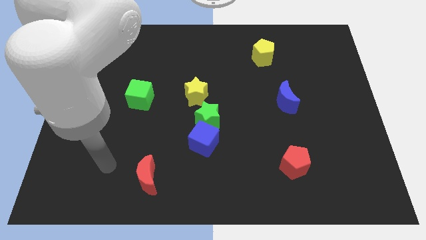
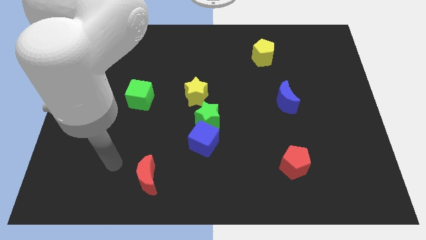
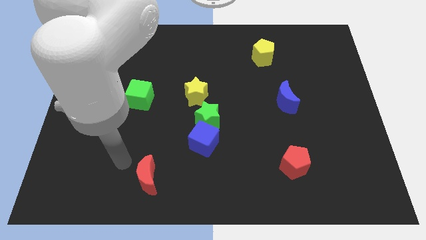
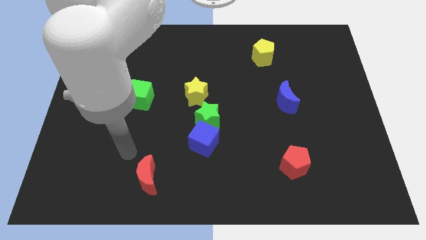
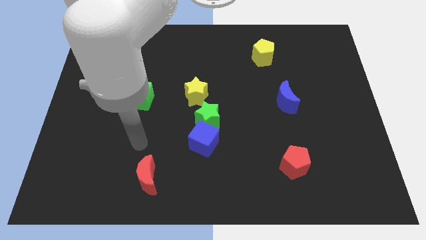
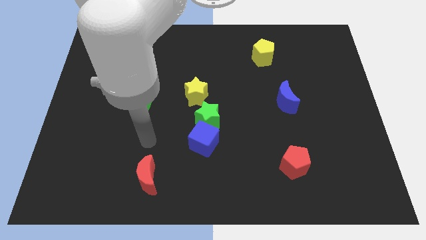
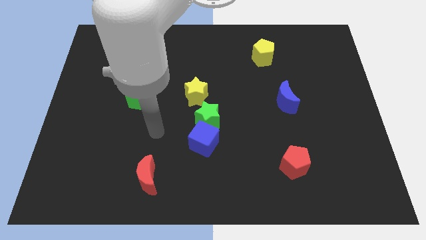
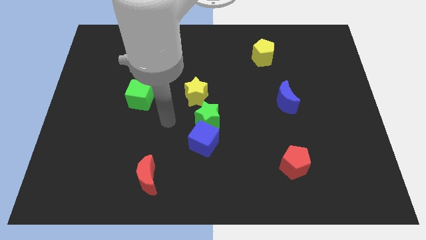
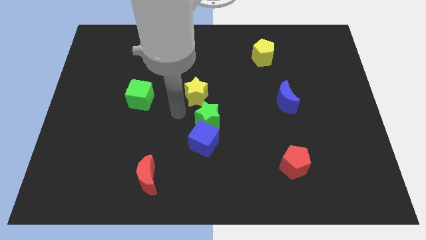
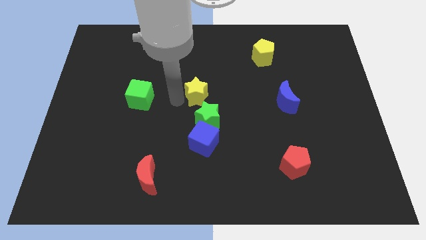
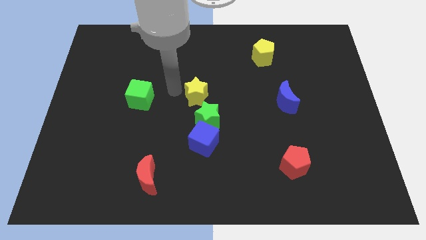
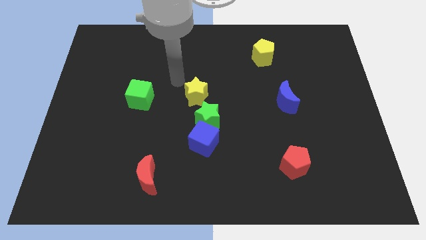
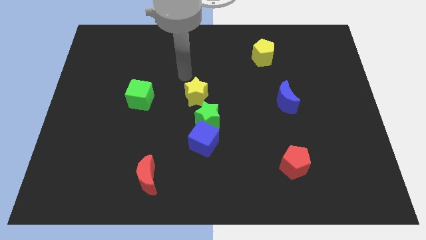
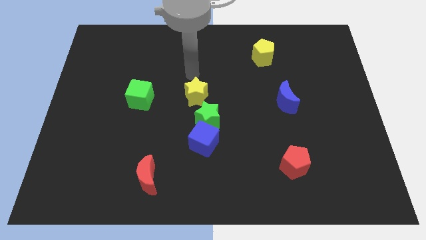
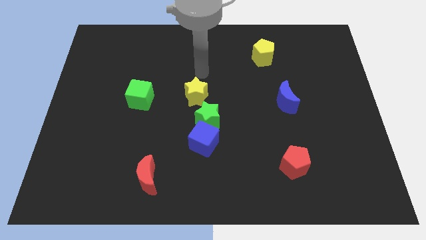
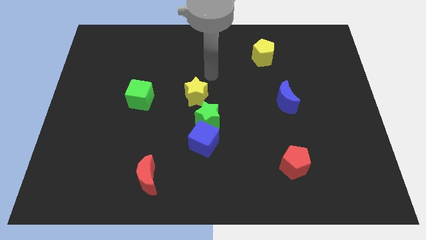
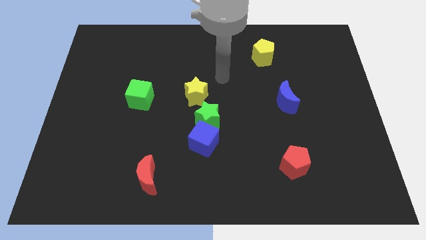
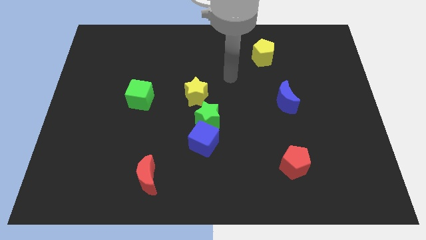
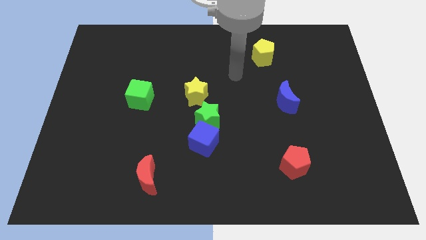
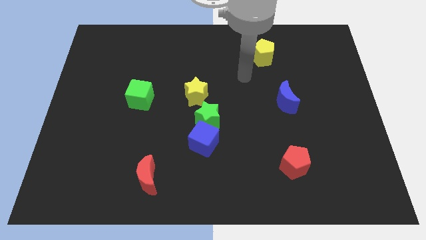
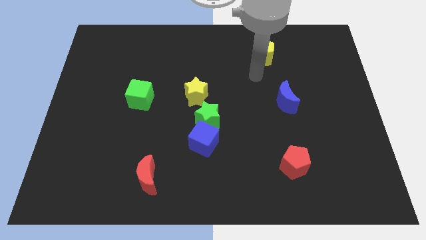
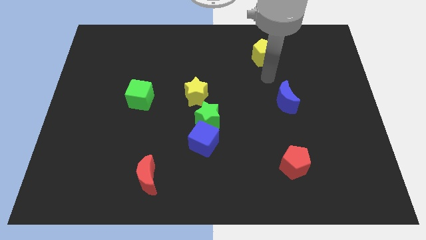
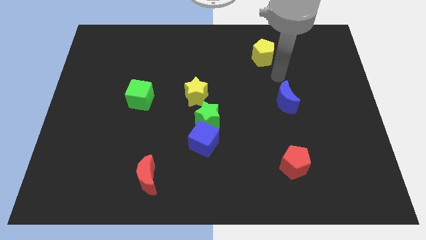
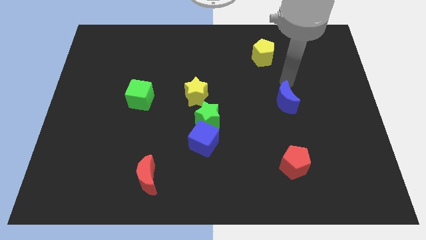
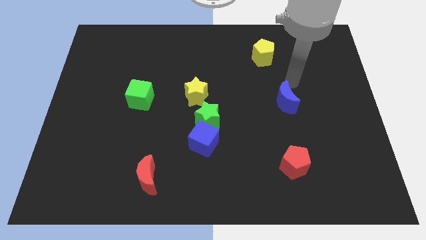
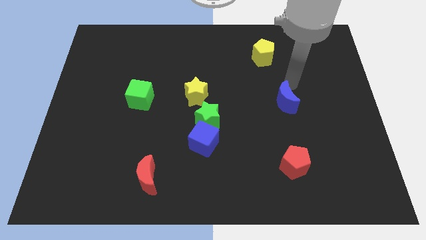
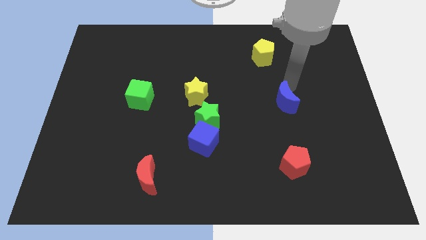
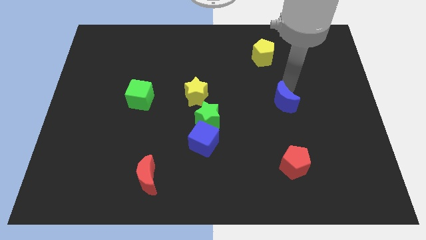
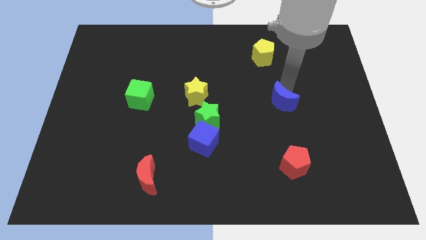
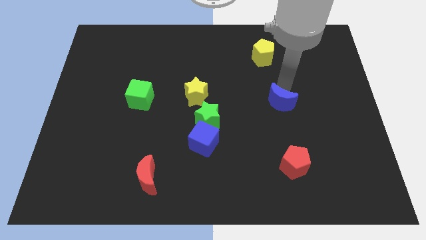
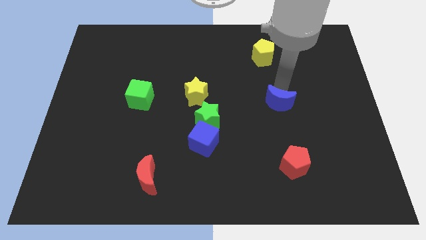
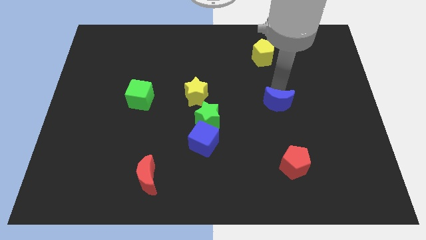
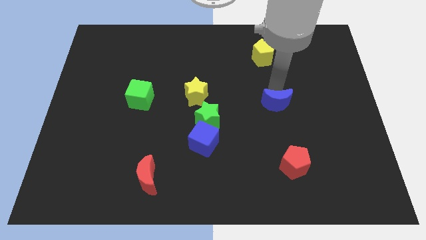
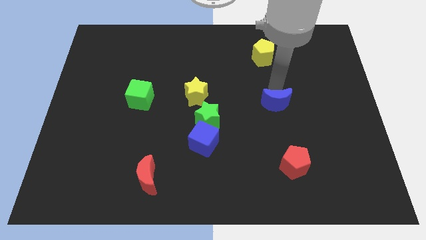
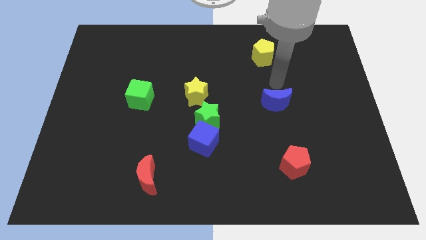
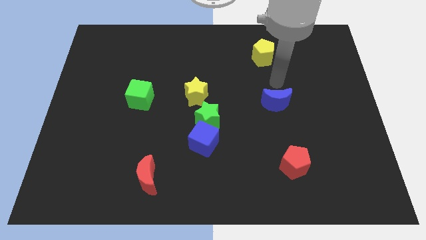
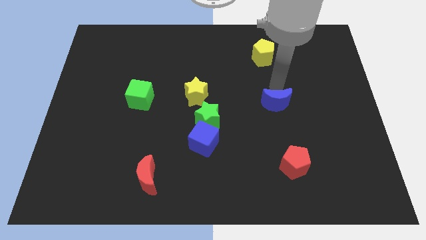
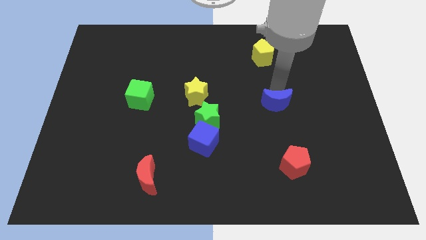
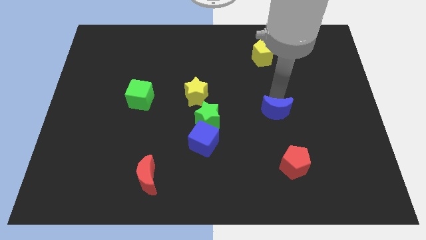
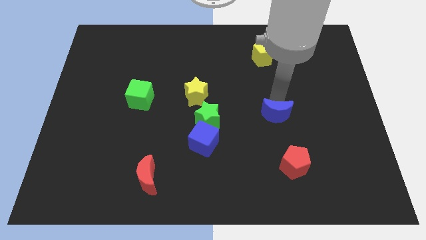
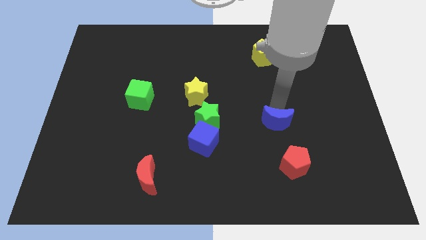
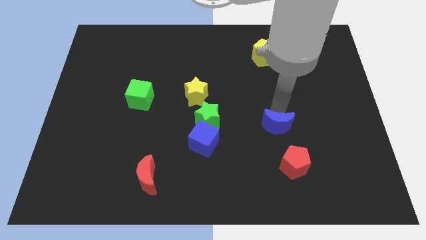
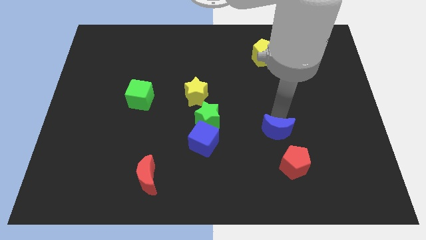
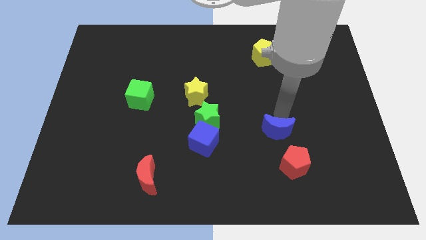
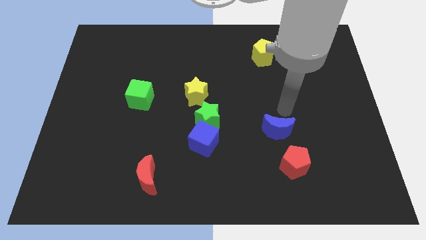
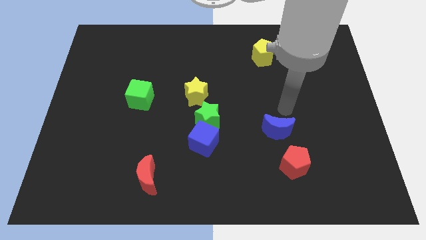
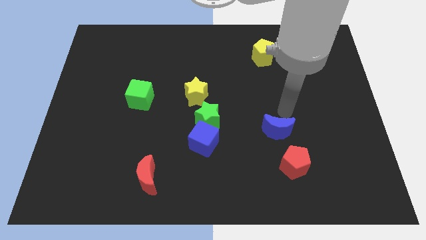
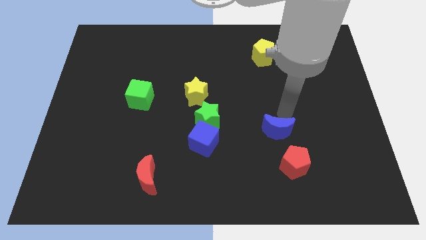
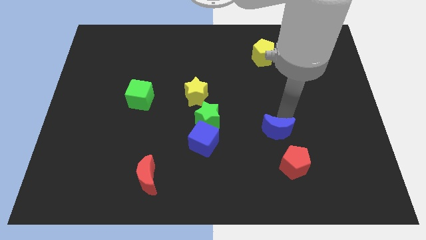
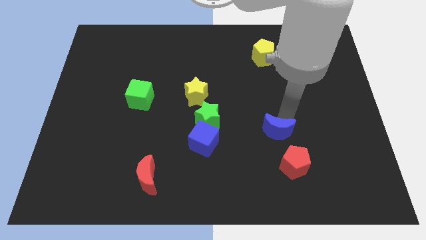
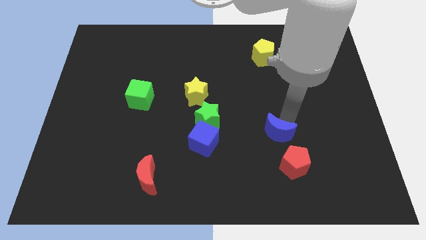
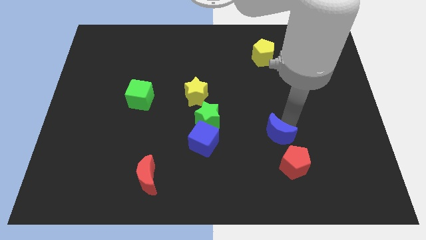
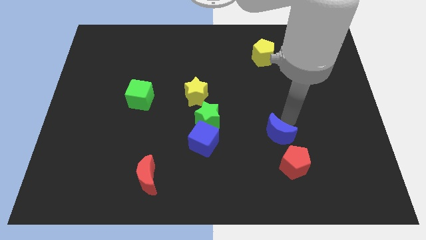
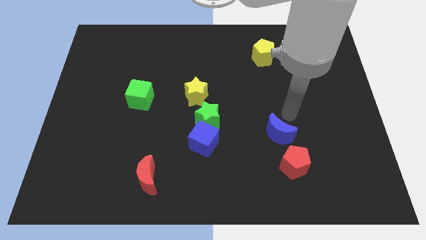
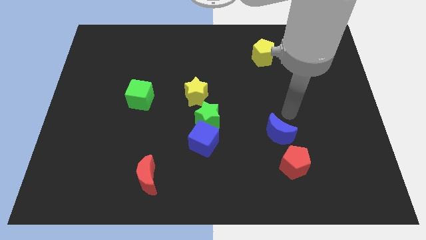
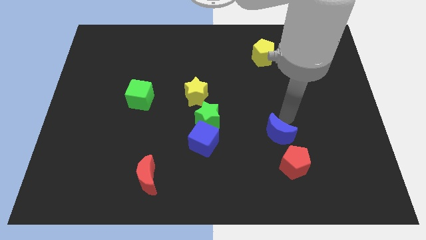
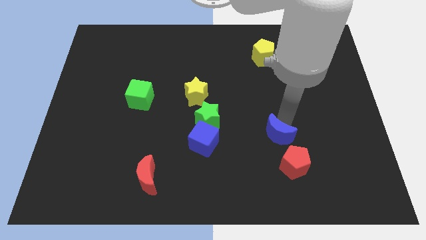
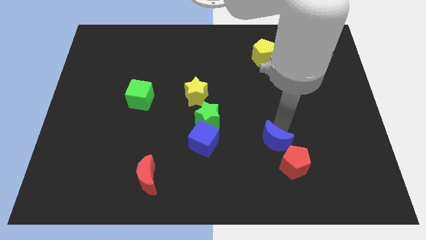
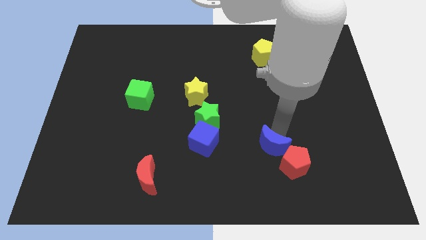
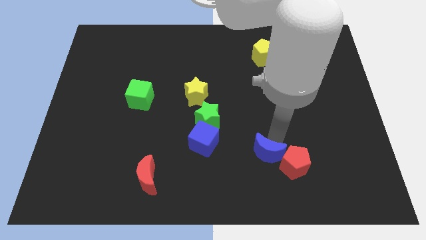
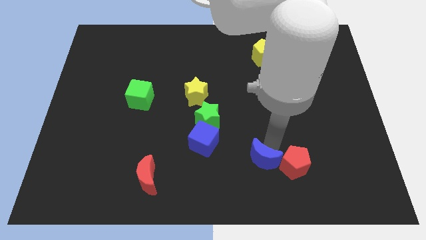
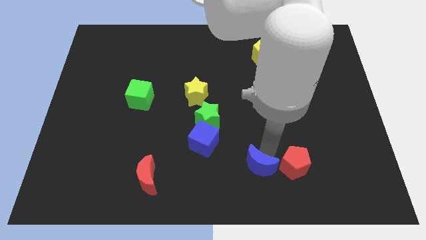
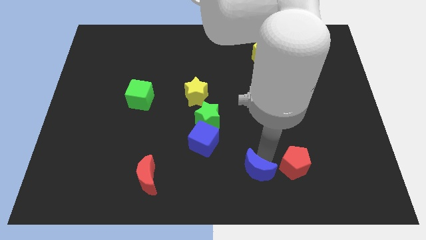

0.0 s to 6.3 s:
slide the blue moon to the bottom side

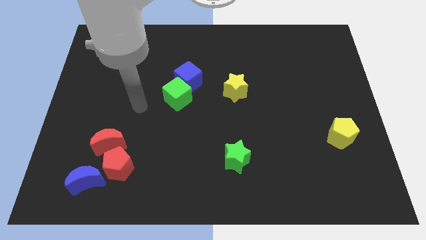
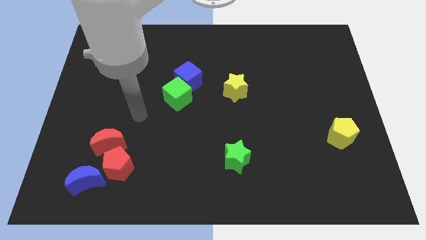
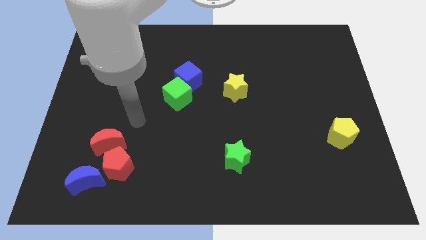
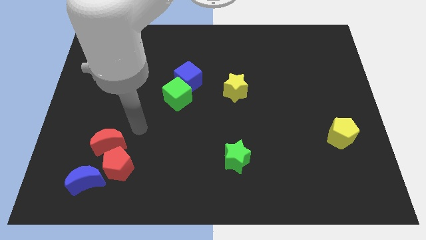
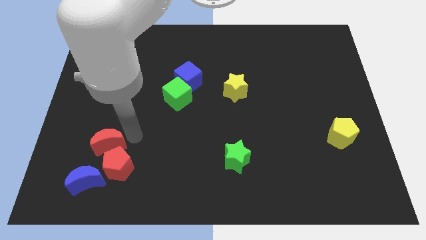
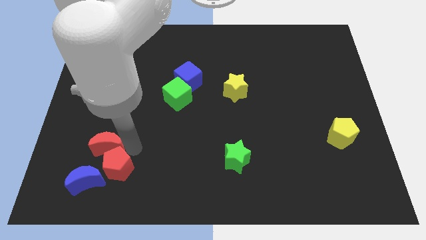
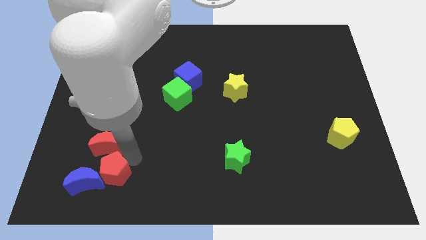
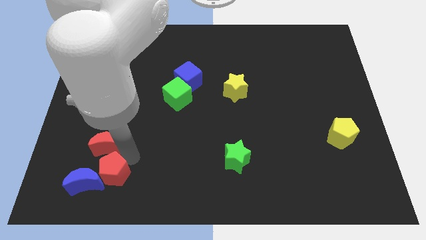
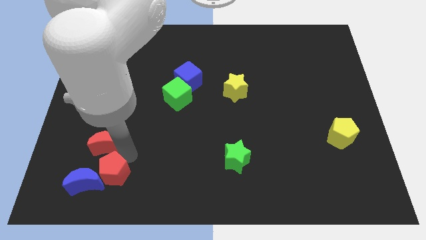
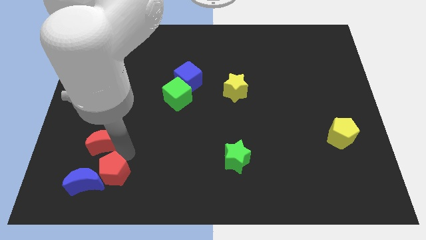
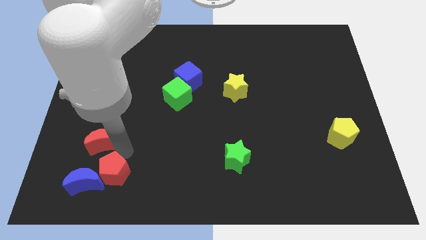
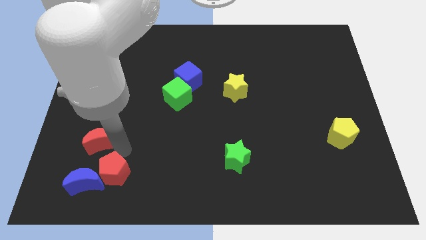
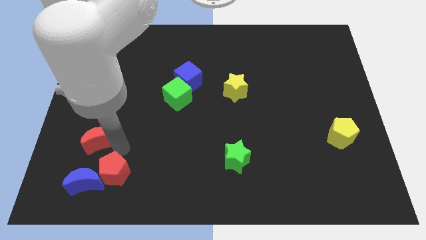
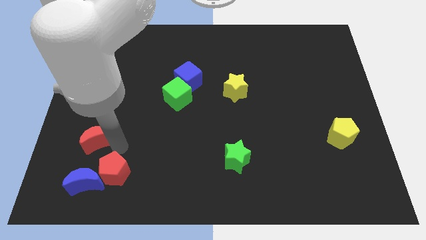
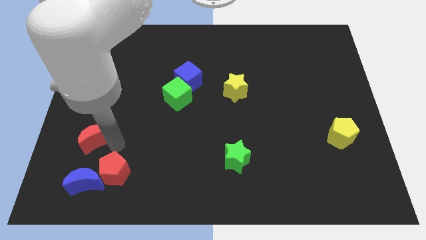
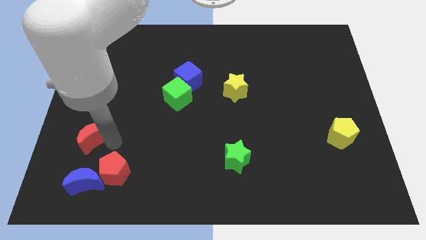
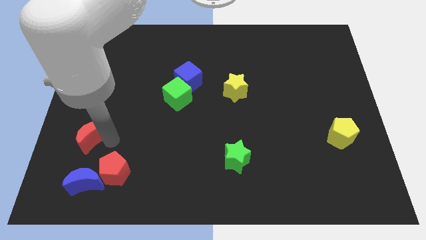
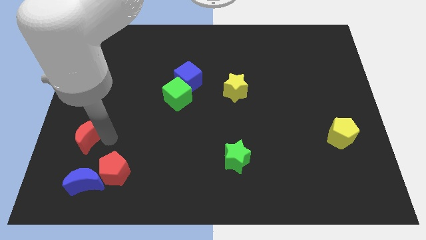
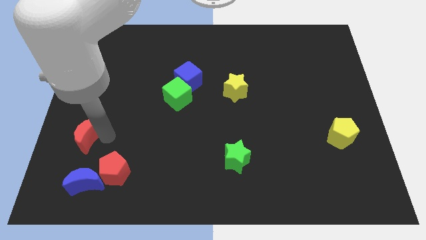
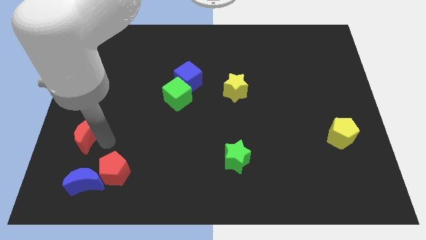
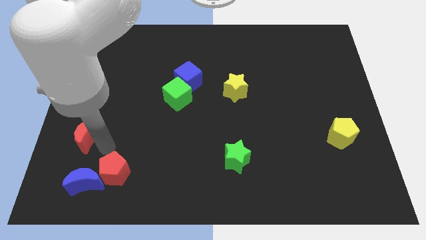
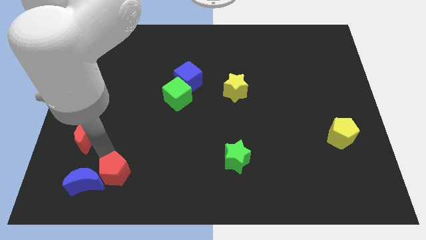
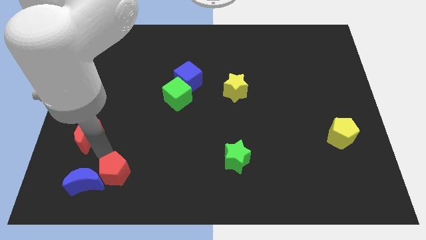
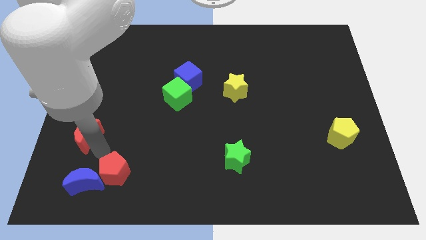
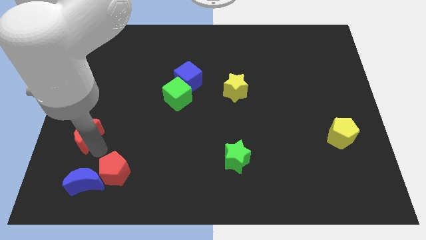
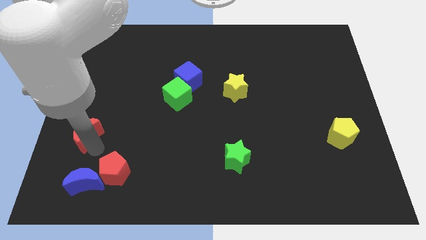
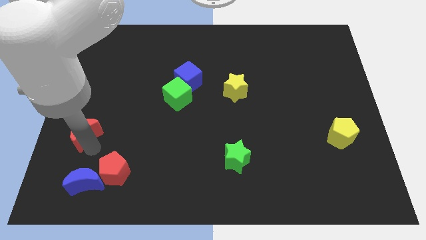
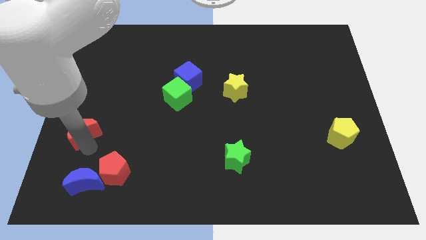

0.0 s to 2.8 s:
put the red moon to the left side of the board
